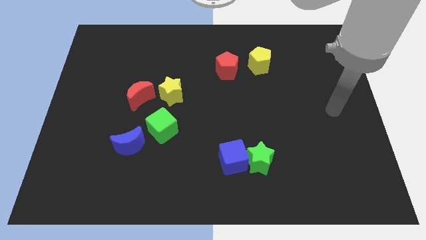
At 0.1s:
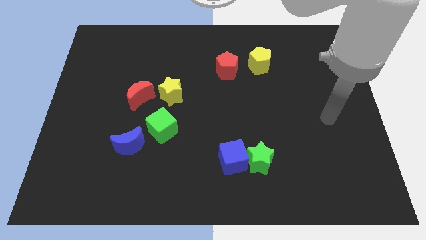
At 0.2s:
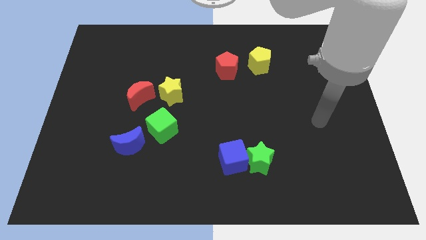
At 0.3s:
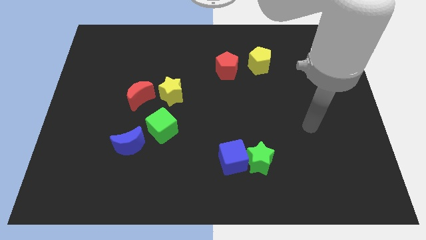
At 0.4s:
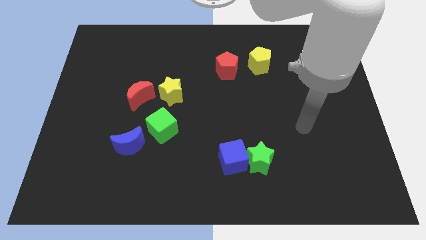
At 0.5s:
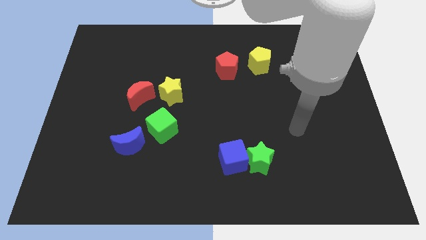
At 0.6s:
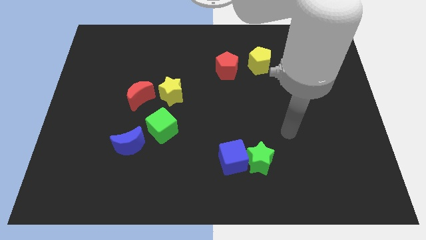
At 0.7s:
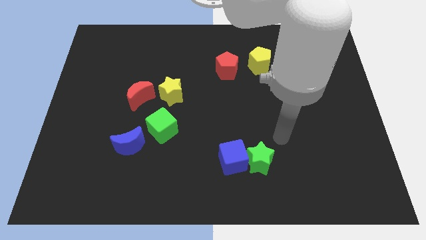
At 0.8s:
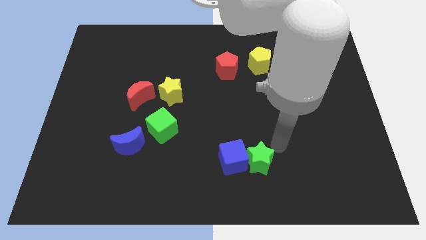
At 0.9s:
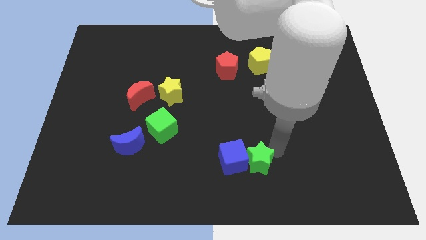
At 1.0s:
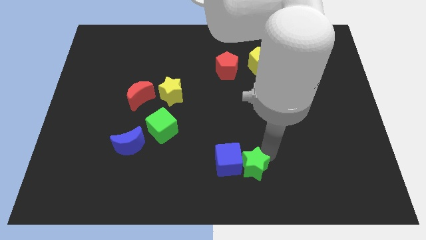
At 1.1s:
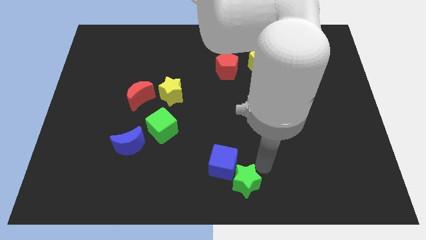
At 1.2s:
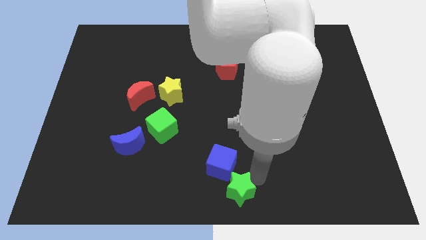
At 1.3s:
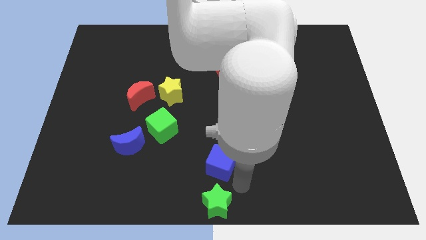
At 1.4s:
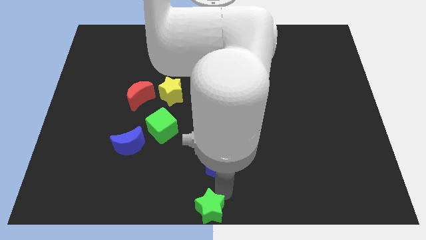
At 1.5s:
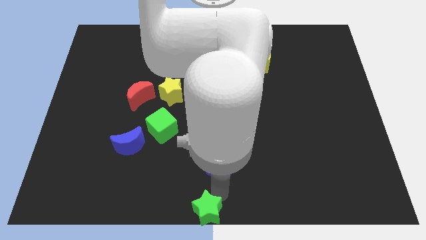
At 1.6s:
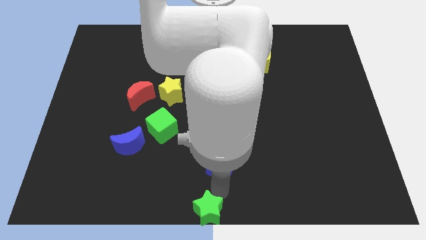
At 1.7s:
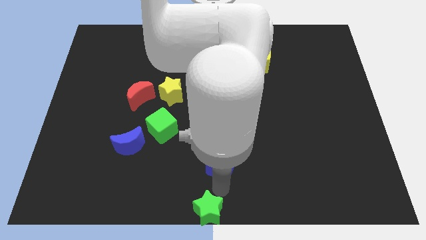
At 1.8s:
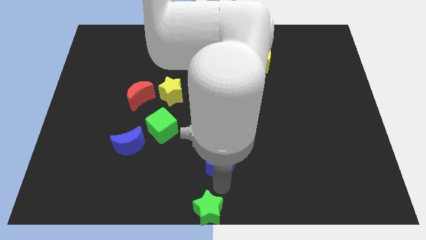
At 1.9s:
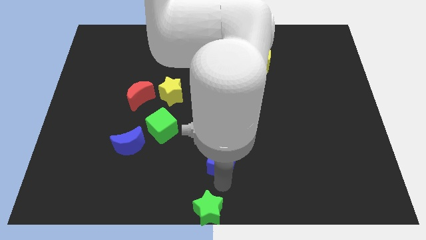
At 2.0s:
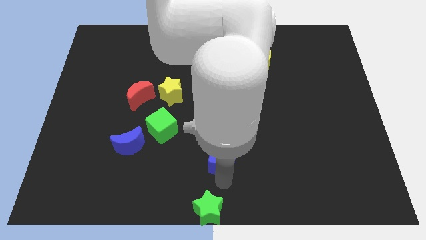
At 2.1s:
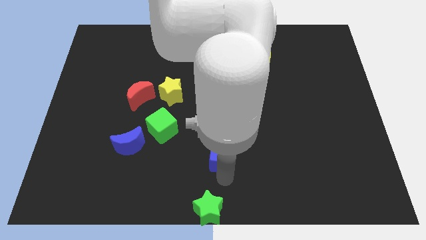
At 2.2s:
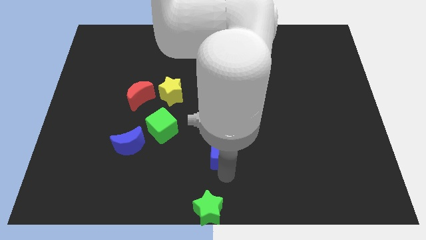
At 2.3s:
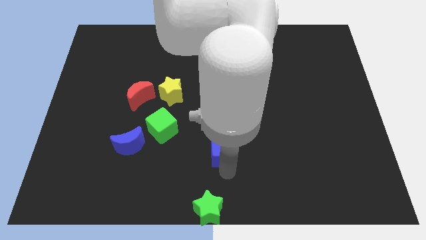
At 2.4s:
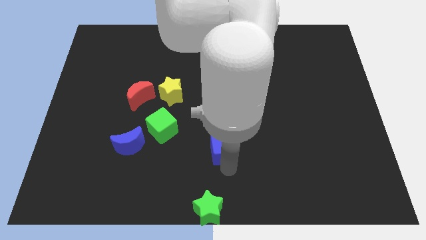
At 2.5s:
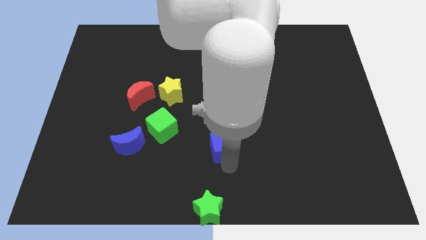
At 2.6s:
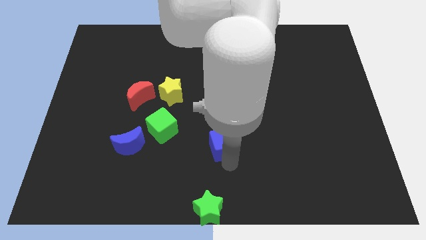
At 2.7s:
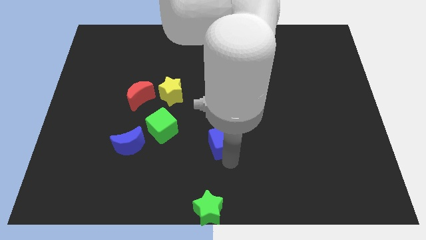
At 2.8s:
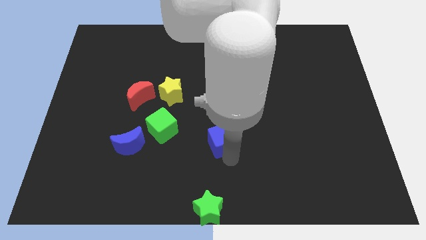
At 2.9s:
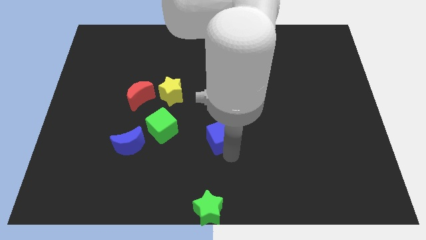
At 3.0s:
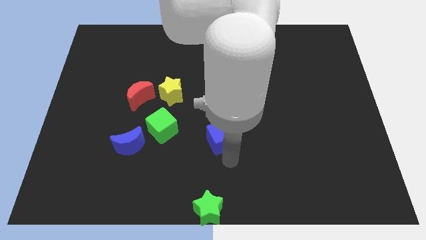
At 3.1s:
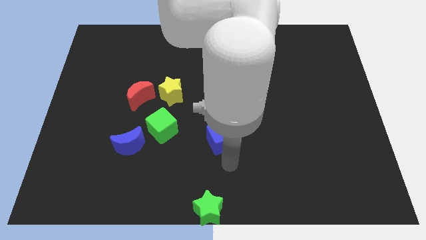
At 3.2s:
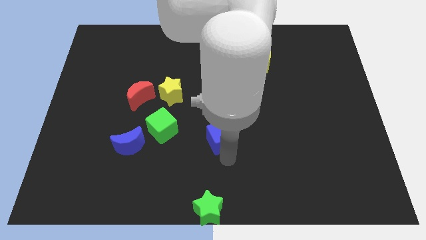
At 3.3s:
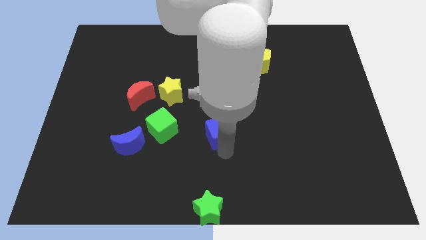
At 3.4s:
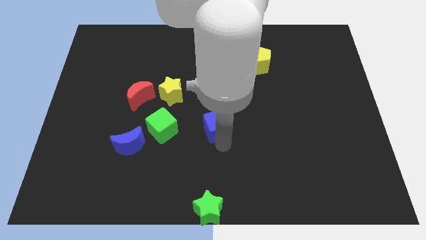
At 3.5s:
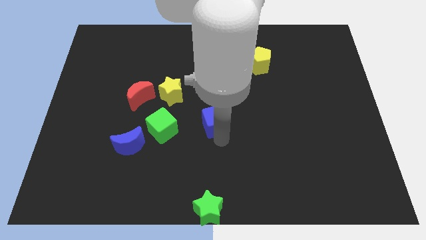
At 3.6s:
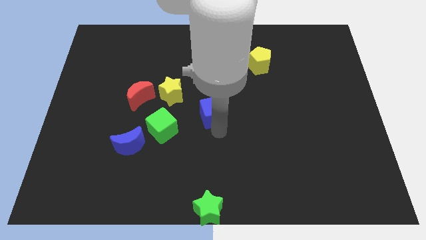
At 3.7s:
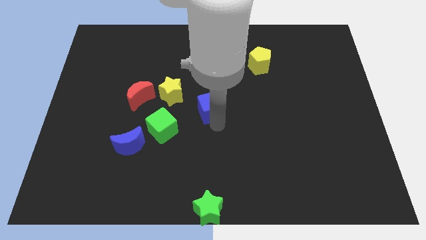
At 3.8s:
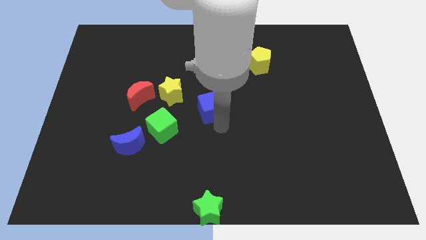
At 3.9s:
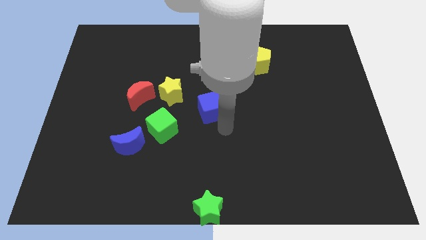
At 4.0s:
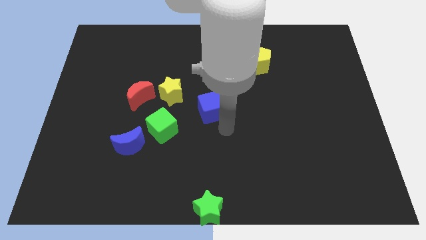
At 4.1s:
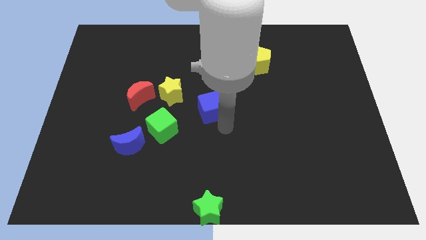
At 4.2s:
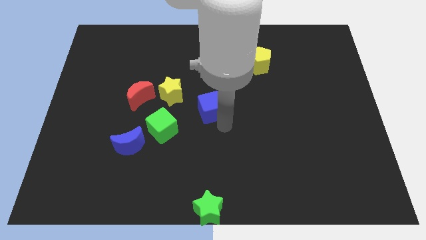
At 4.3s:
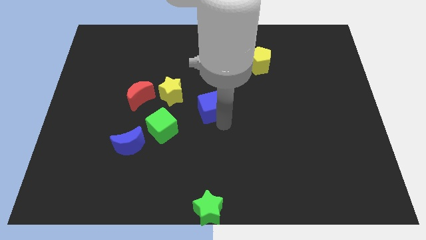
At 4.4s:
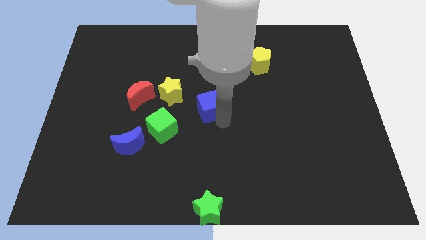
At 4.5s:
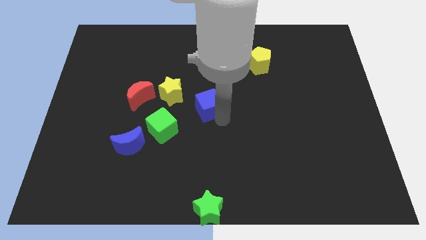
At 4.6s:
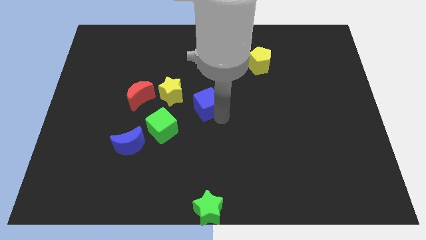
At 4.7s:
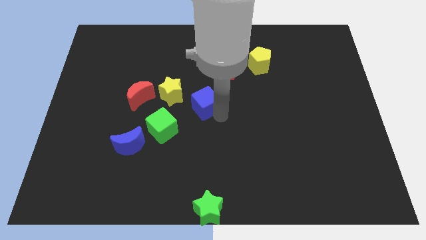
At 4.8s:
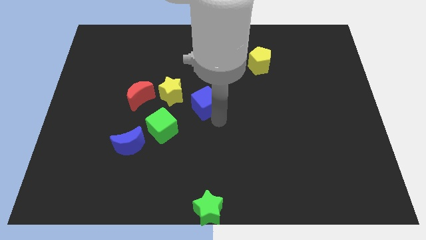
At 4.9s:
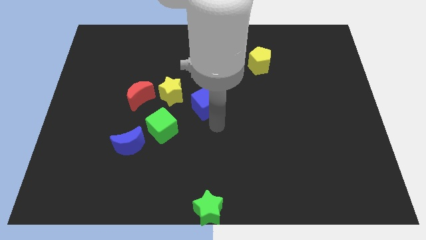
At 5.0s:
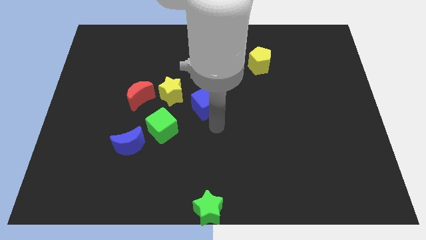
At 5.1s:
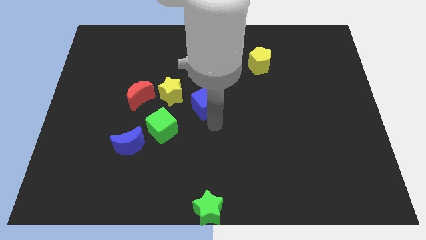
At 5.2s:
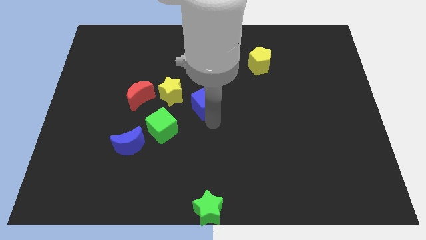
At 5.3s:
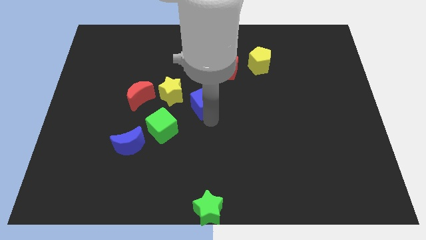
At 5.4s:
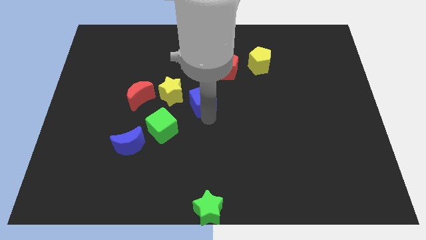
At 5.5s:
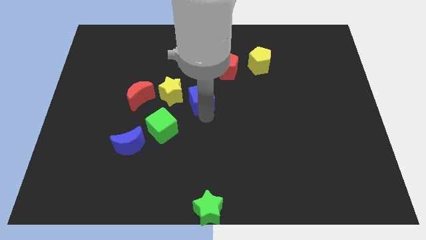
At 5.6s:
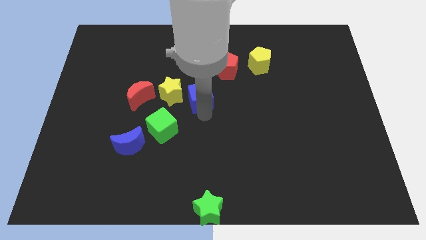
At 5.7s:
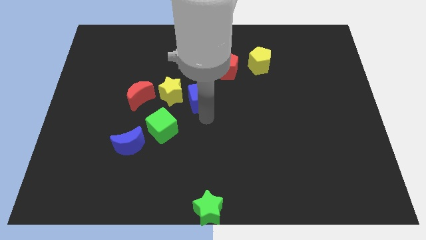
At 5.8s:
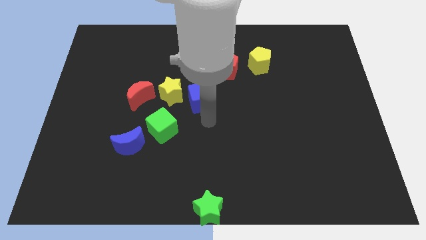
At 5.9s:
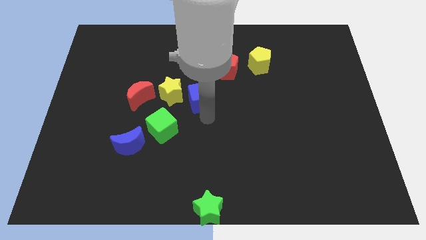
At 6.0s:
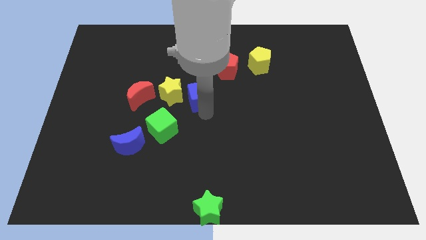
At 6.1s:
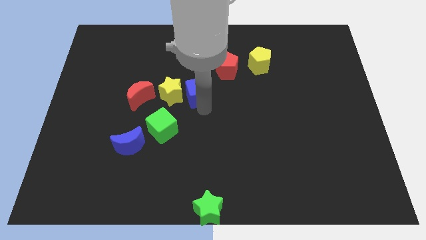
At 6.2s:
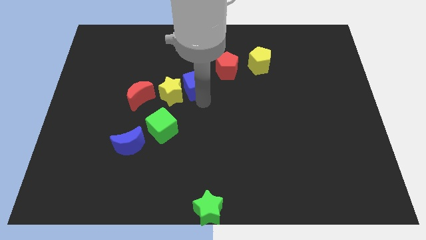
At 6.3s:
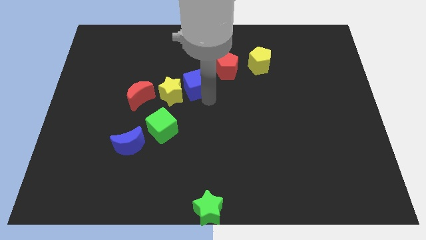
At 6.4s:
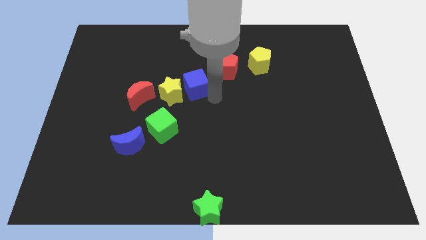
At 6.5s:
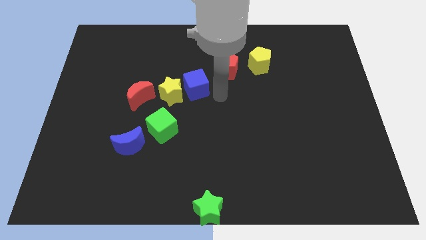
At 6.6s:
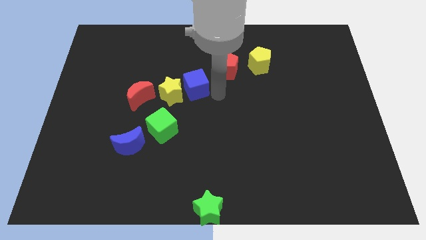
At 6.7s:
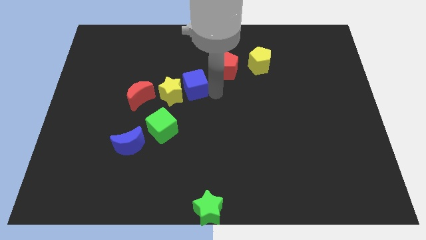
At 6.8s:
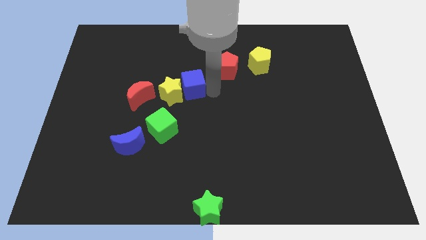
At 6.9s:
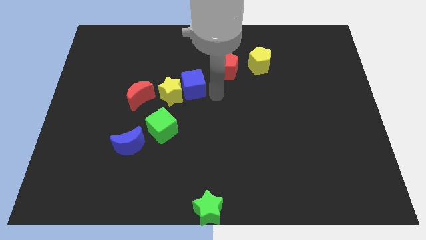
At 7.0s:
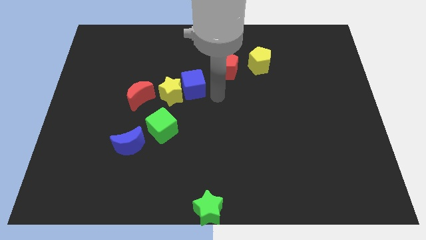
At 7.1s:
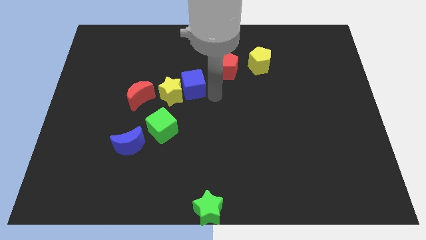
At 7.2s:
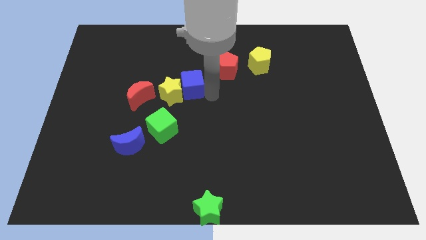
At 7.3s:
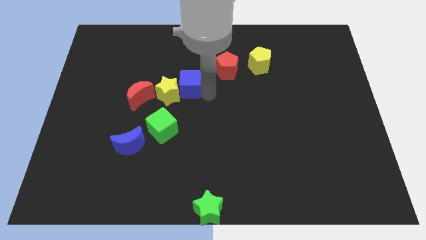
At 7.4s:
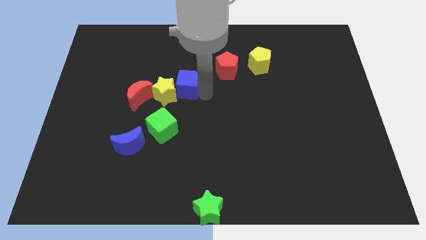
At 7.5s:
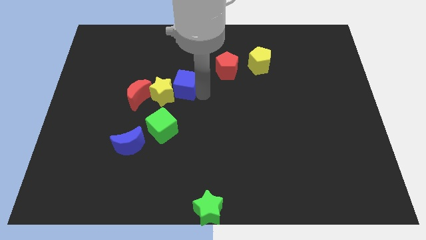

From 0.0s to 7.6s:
move the blue cube upwards and to the left
